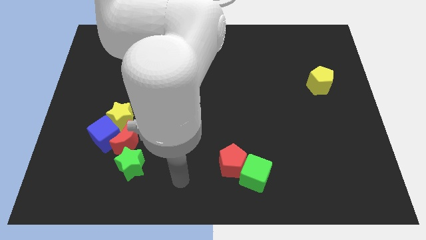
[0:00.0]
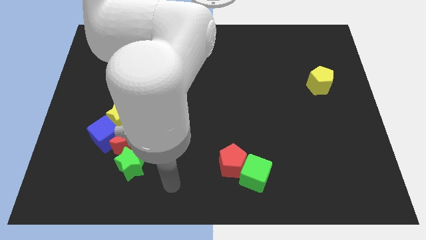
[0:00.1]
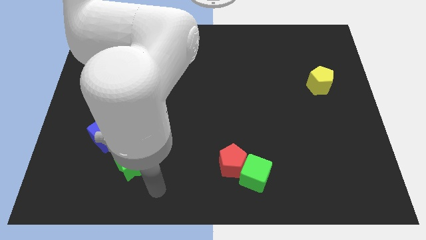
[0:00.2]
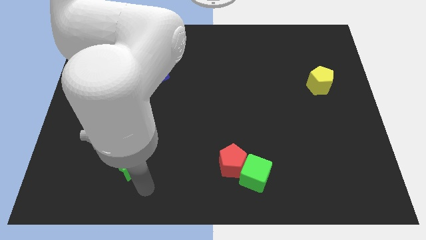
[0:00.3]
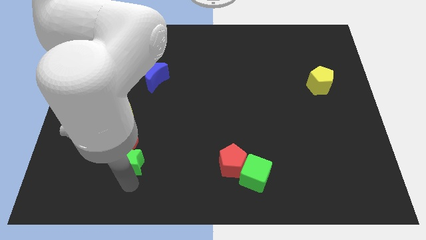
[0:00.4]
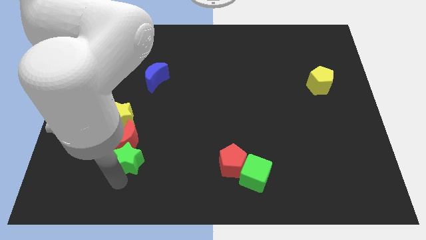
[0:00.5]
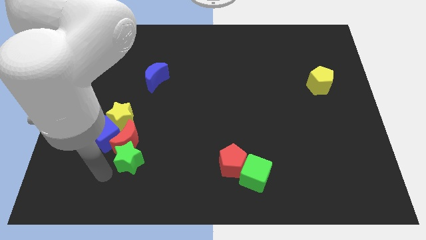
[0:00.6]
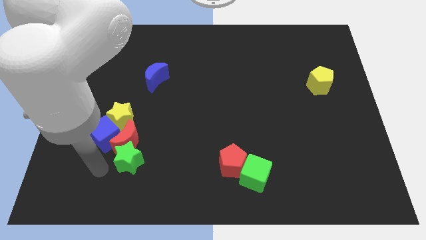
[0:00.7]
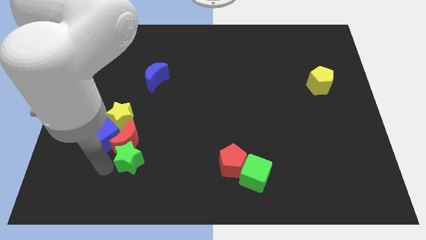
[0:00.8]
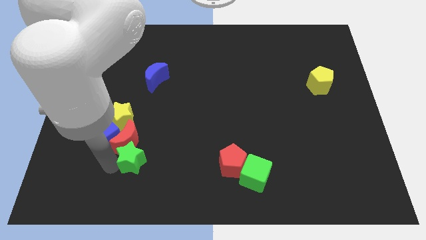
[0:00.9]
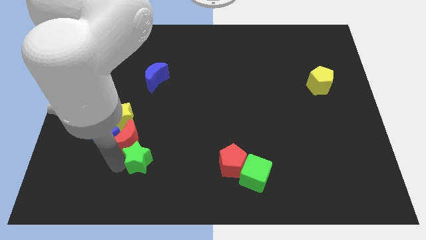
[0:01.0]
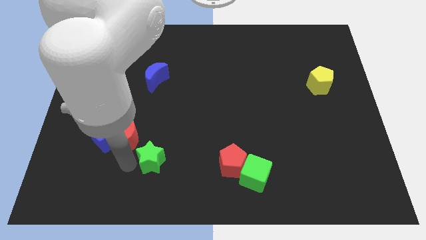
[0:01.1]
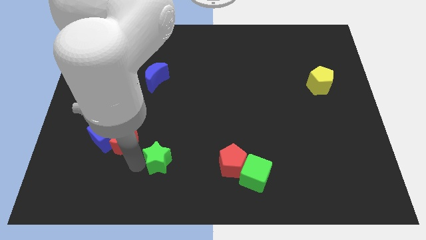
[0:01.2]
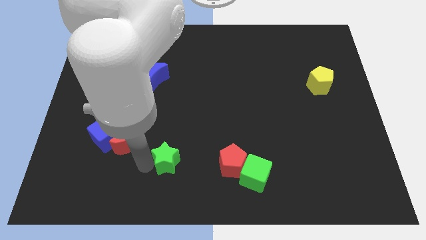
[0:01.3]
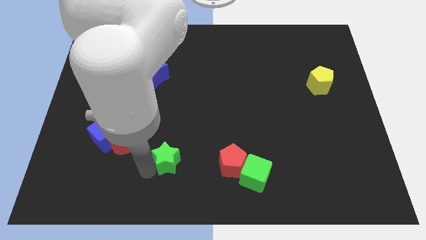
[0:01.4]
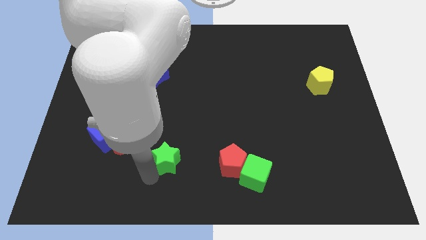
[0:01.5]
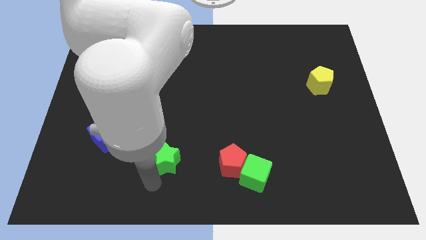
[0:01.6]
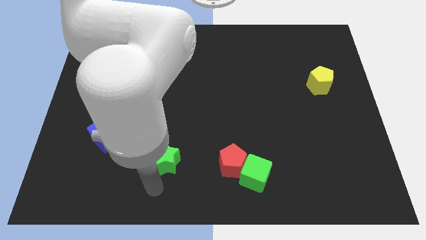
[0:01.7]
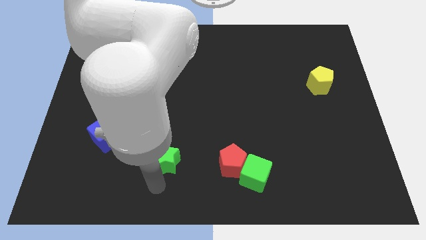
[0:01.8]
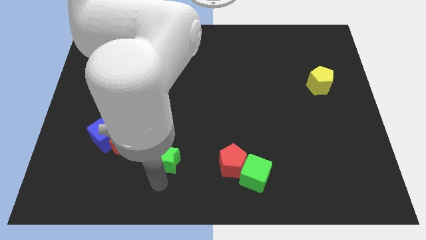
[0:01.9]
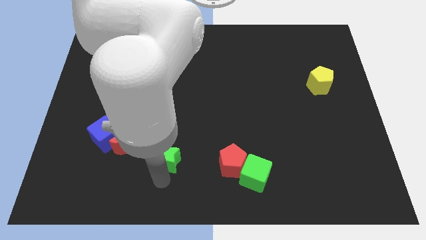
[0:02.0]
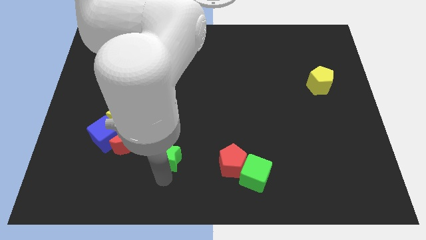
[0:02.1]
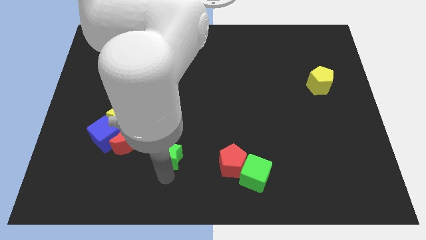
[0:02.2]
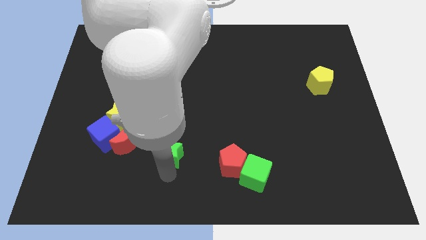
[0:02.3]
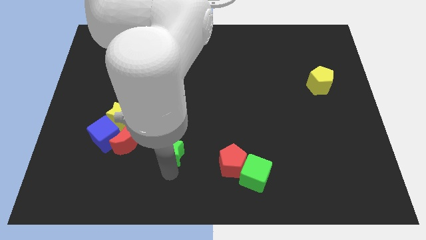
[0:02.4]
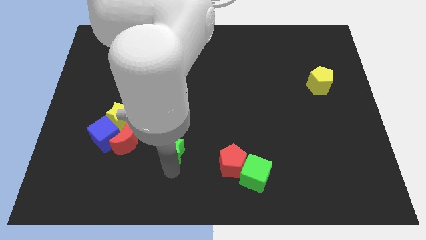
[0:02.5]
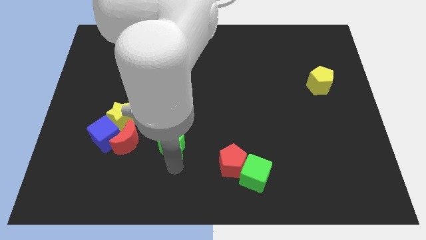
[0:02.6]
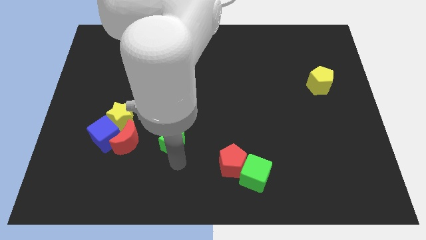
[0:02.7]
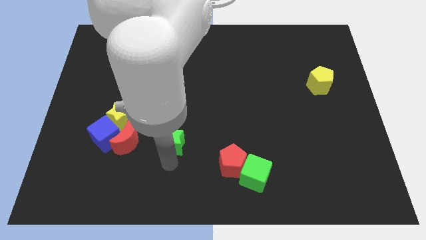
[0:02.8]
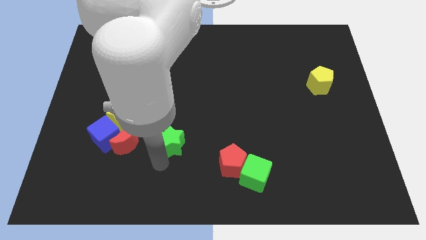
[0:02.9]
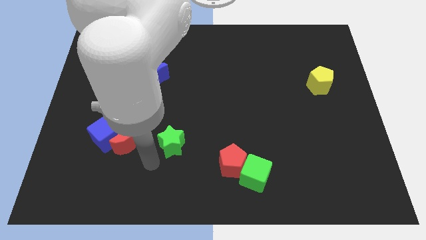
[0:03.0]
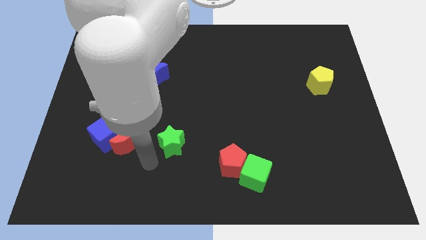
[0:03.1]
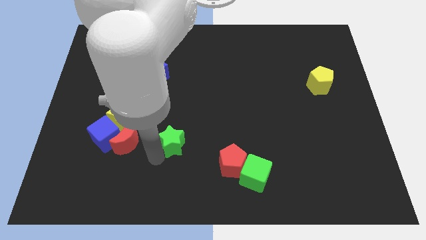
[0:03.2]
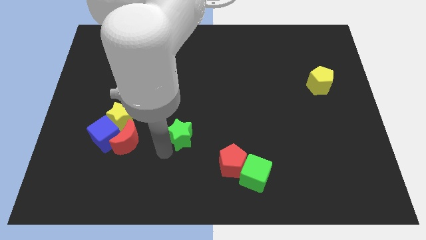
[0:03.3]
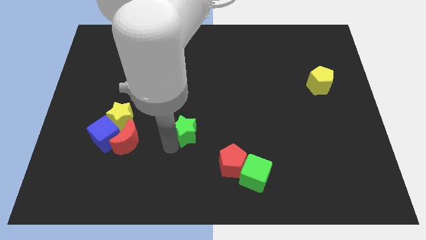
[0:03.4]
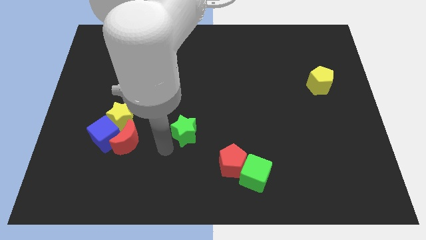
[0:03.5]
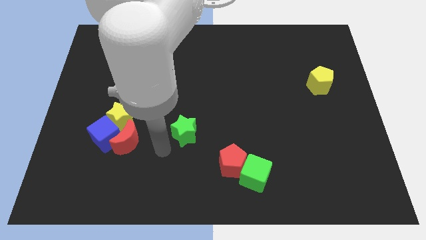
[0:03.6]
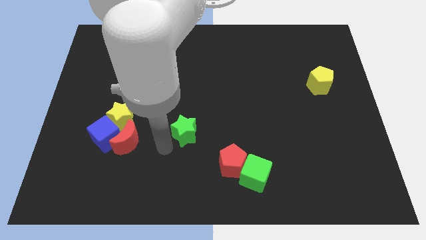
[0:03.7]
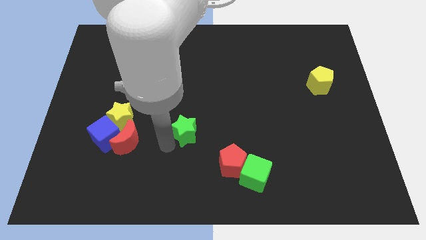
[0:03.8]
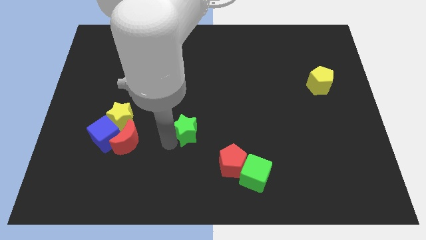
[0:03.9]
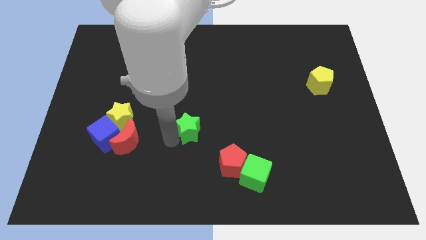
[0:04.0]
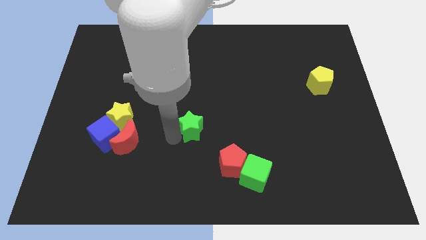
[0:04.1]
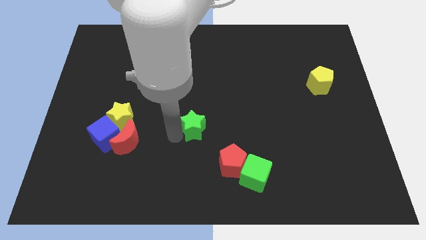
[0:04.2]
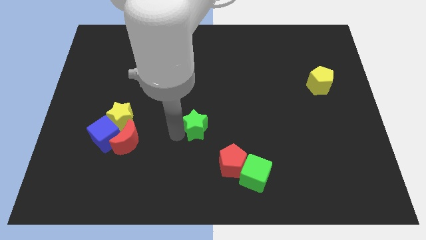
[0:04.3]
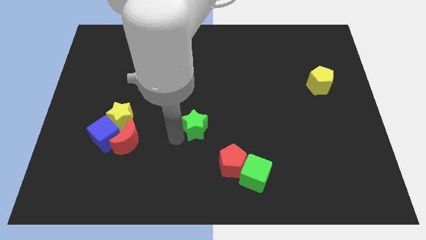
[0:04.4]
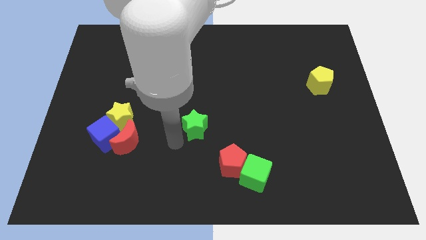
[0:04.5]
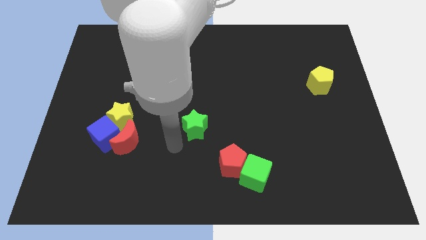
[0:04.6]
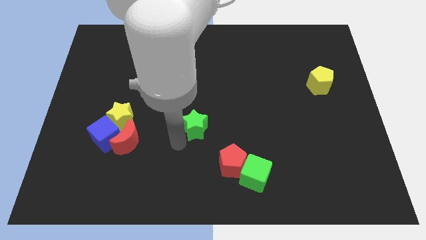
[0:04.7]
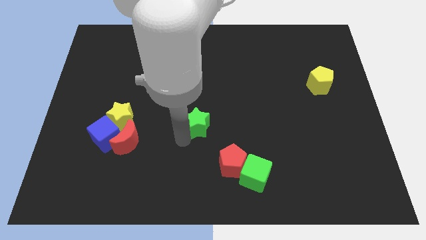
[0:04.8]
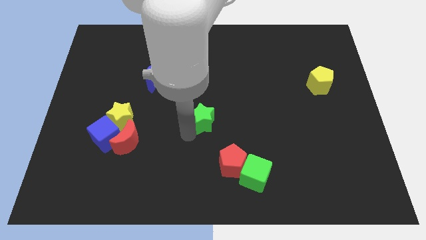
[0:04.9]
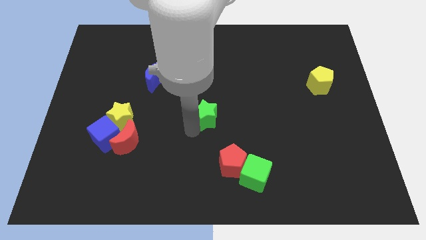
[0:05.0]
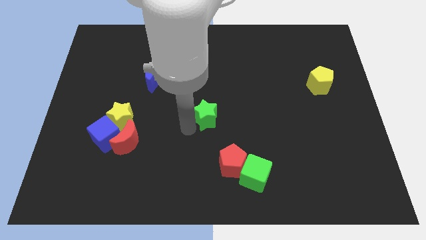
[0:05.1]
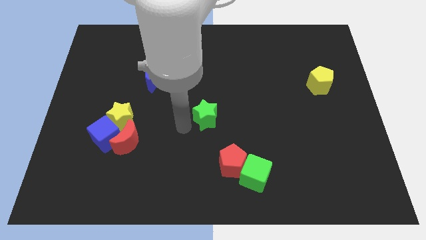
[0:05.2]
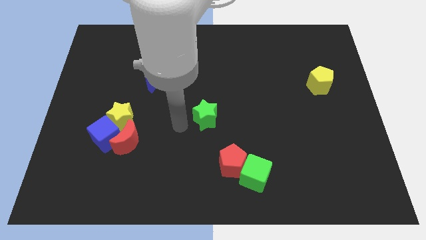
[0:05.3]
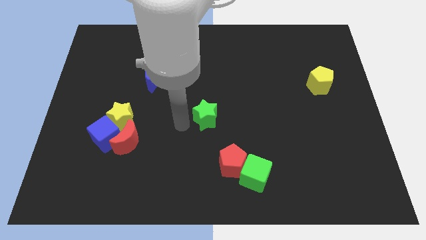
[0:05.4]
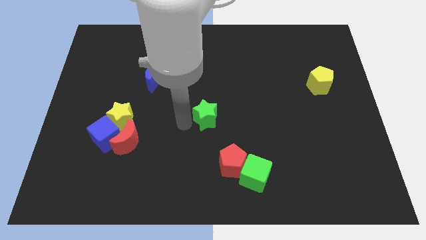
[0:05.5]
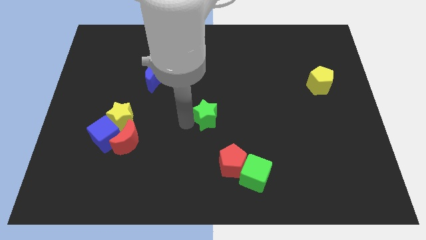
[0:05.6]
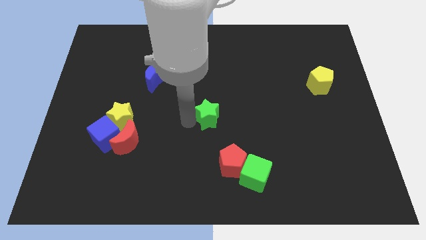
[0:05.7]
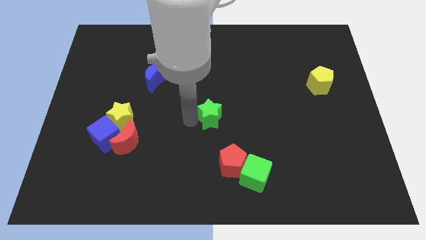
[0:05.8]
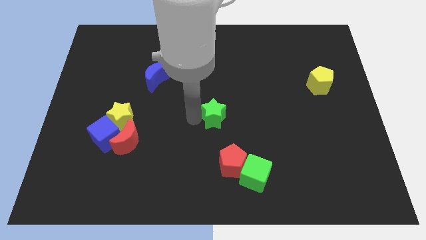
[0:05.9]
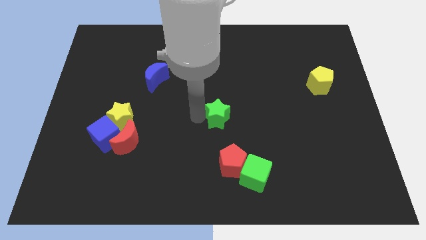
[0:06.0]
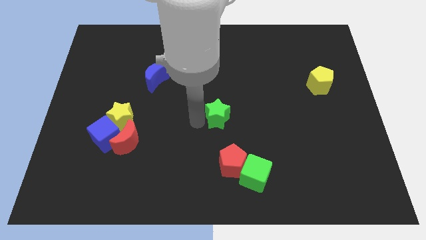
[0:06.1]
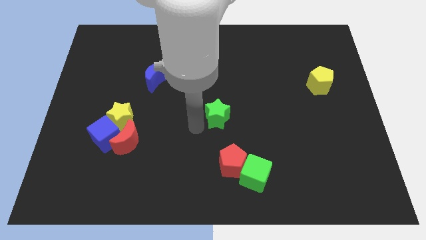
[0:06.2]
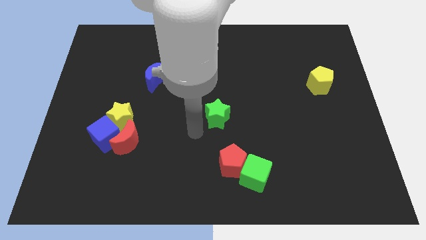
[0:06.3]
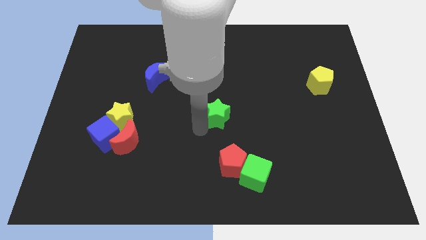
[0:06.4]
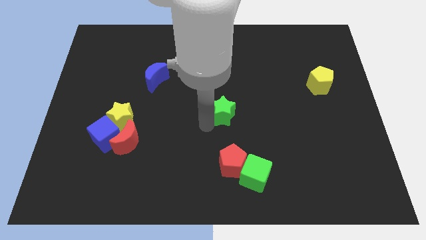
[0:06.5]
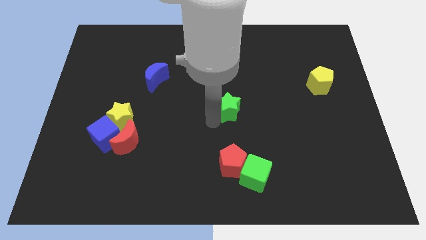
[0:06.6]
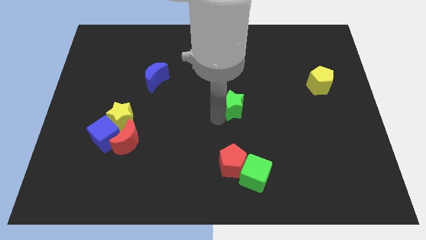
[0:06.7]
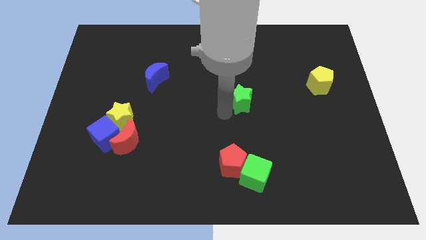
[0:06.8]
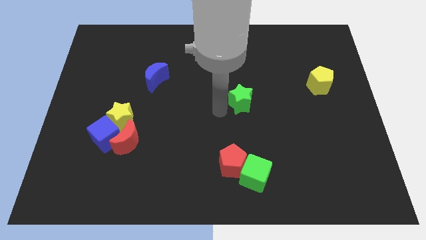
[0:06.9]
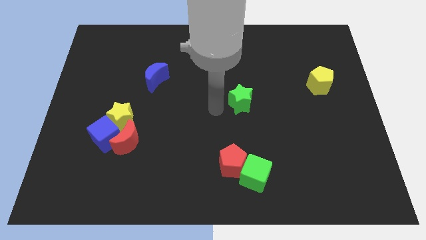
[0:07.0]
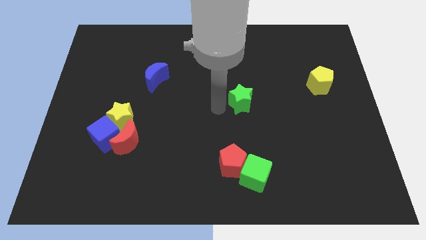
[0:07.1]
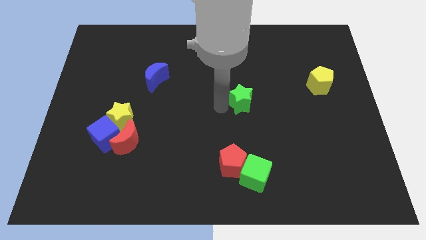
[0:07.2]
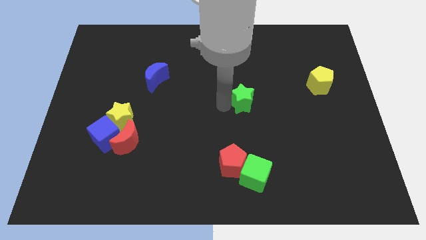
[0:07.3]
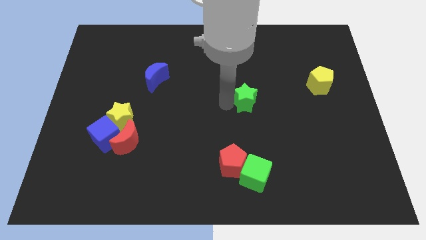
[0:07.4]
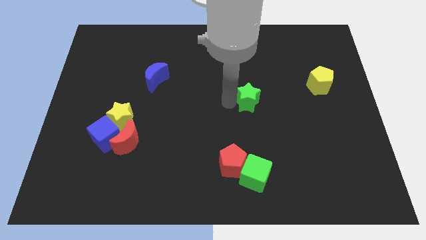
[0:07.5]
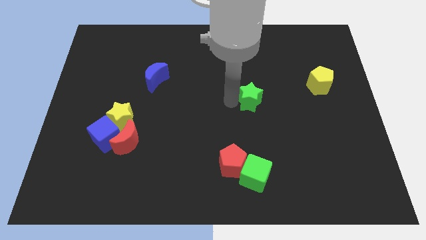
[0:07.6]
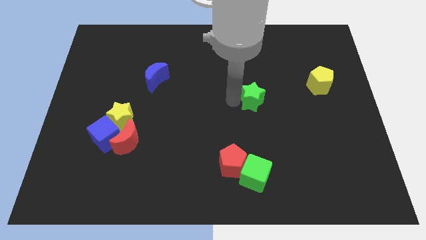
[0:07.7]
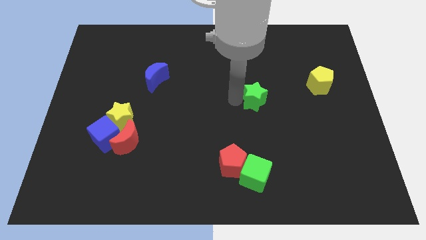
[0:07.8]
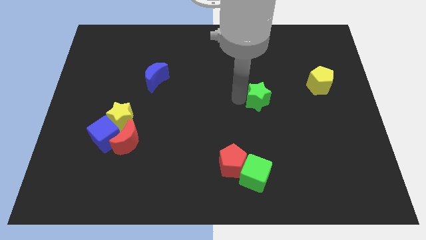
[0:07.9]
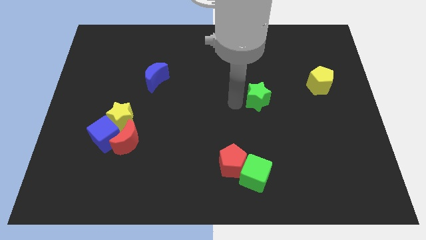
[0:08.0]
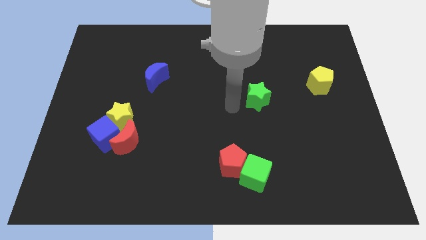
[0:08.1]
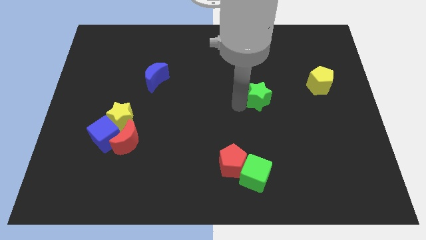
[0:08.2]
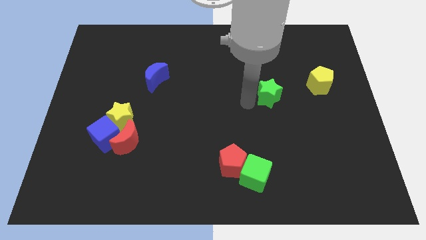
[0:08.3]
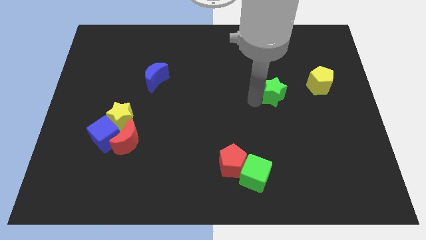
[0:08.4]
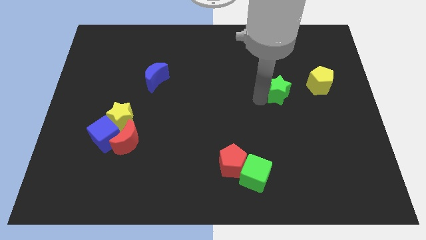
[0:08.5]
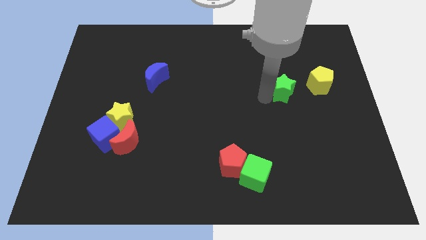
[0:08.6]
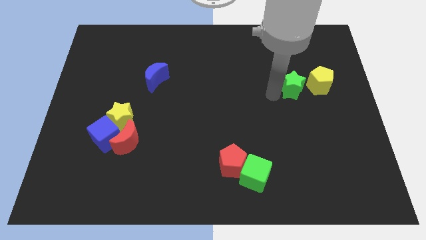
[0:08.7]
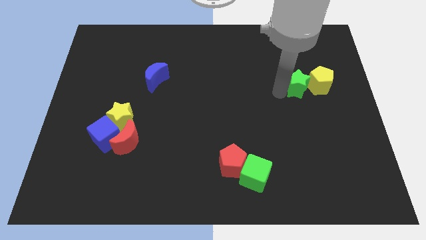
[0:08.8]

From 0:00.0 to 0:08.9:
put the green star towards the yellow pentagon
